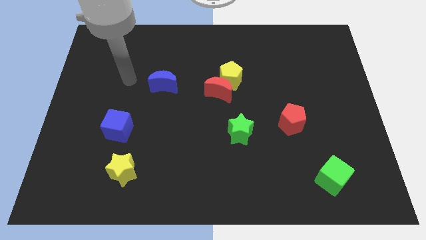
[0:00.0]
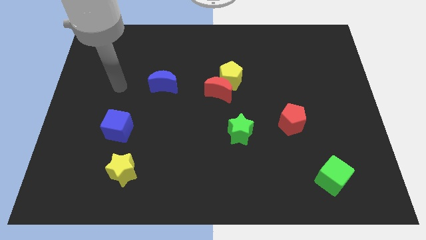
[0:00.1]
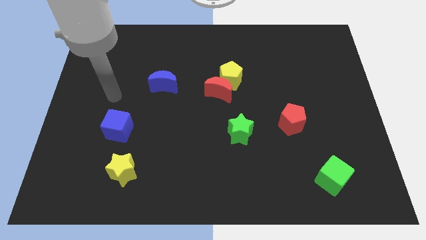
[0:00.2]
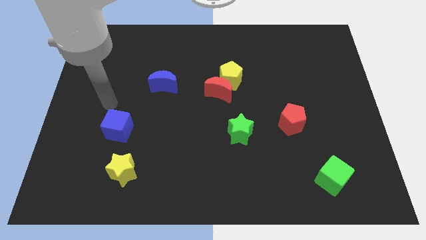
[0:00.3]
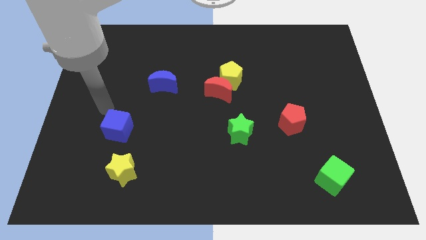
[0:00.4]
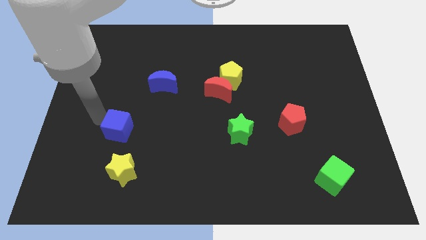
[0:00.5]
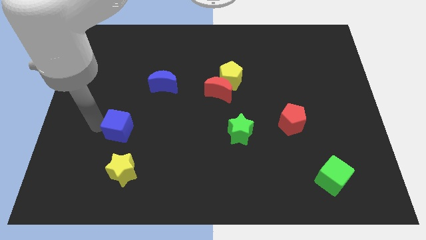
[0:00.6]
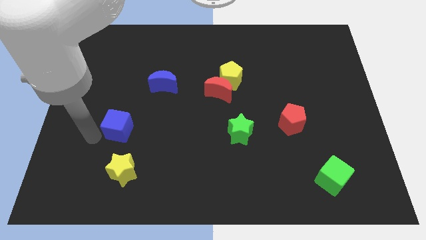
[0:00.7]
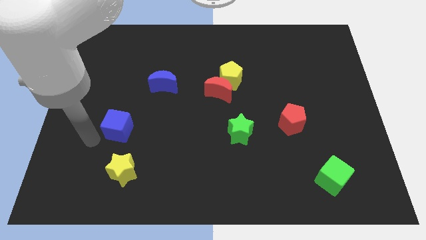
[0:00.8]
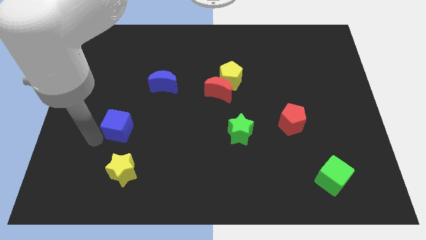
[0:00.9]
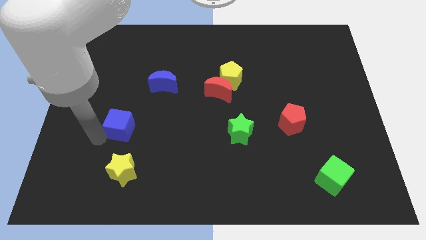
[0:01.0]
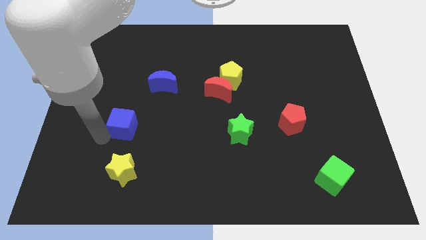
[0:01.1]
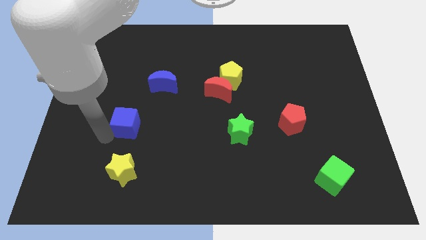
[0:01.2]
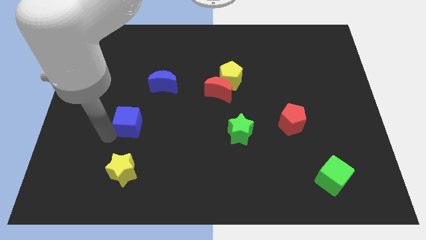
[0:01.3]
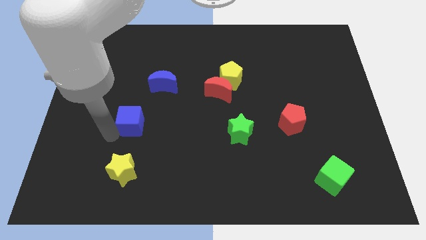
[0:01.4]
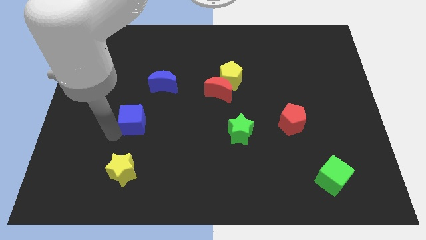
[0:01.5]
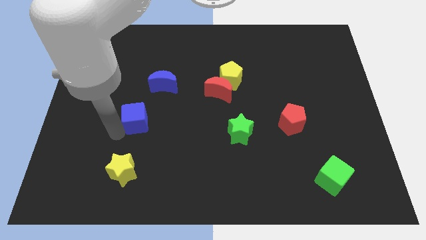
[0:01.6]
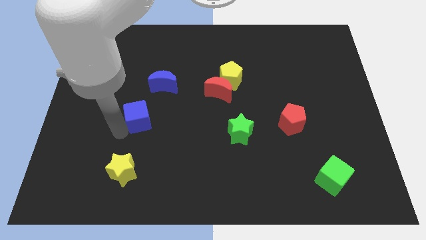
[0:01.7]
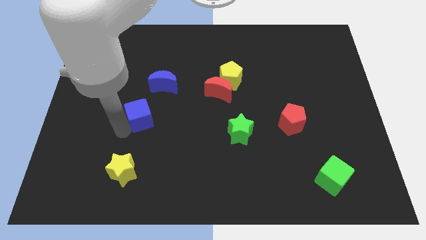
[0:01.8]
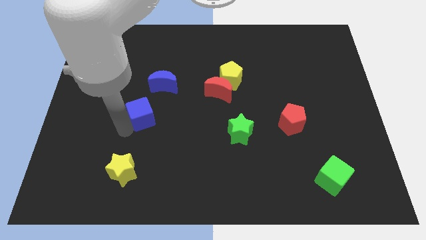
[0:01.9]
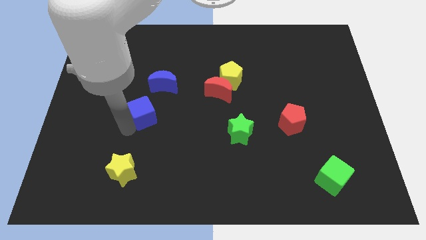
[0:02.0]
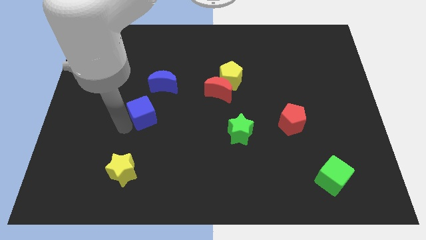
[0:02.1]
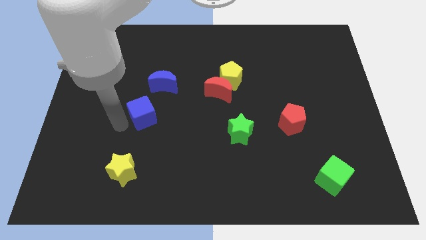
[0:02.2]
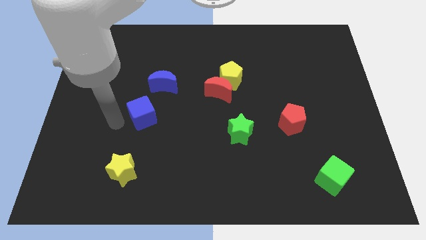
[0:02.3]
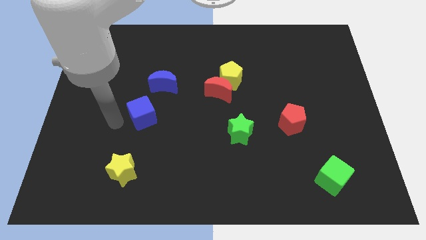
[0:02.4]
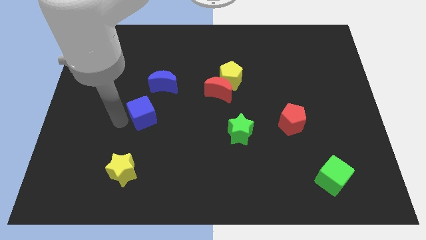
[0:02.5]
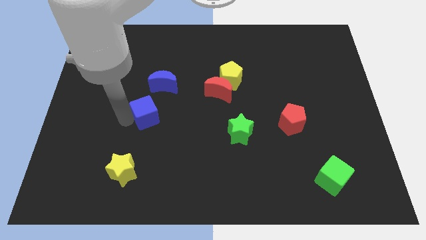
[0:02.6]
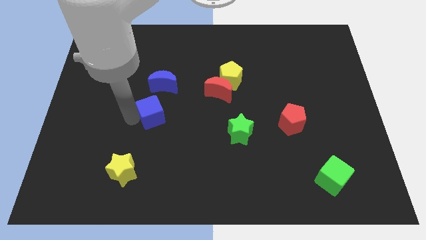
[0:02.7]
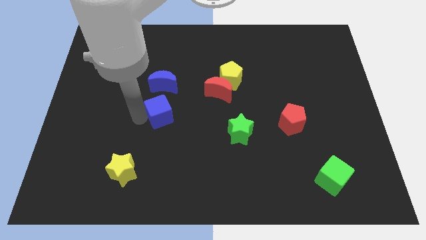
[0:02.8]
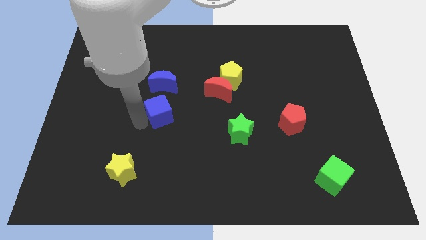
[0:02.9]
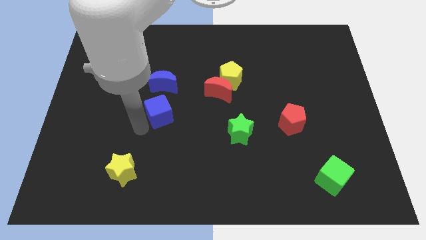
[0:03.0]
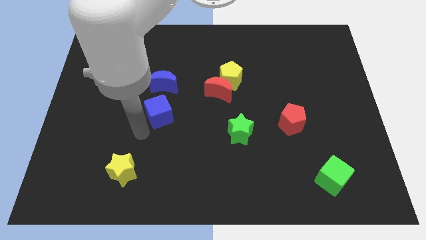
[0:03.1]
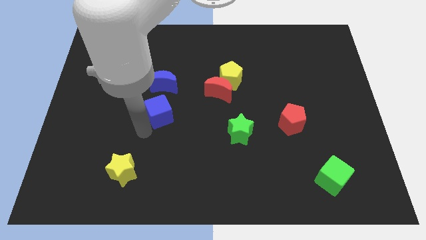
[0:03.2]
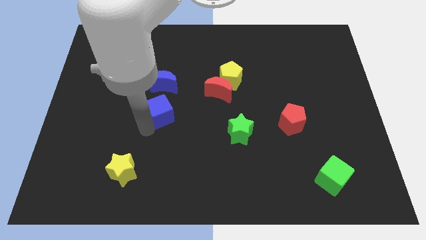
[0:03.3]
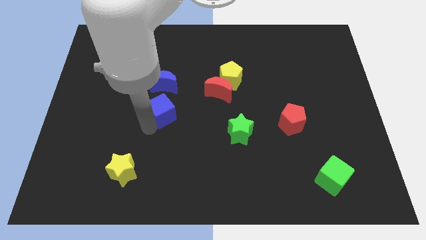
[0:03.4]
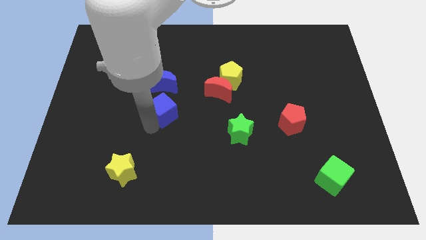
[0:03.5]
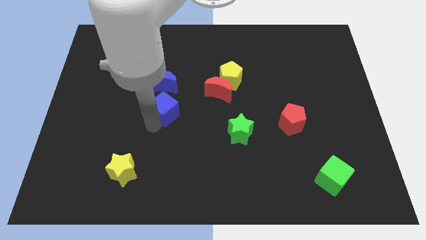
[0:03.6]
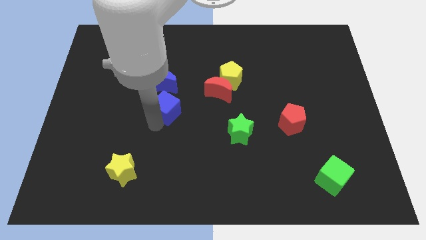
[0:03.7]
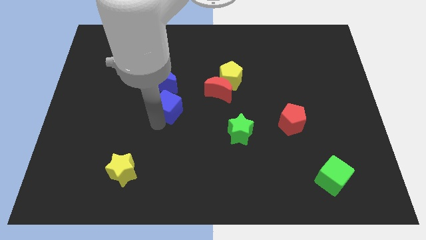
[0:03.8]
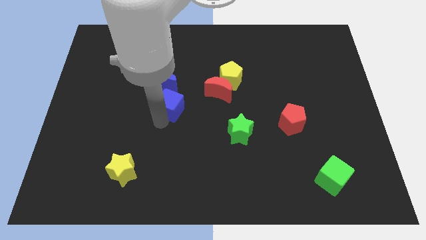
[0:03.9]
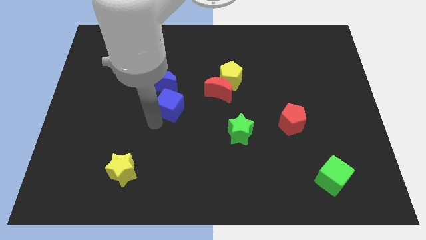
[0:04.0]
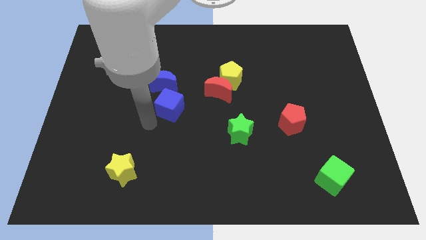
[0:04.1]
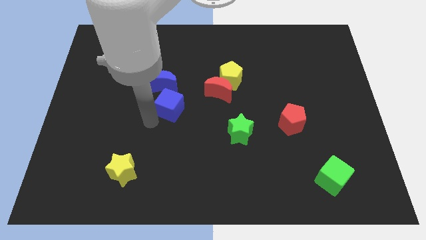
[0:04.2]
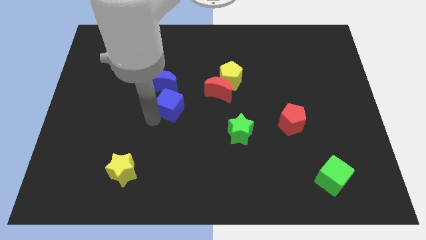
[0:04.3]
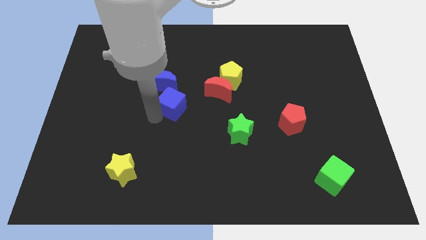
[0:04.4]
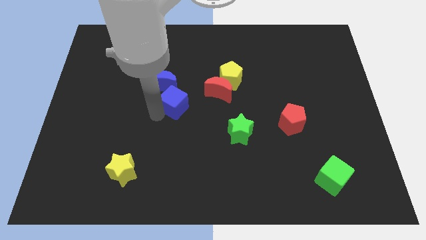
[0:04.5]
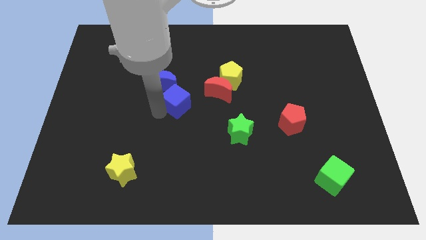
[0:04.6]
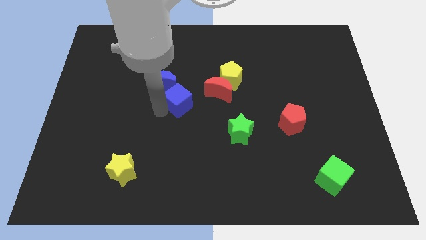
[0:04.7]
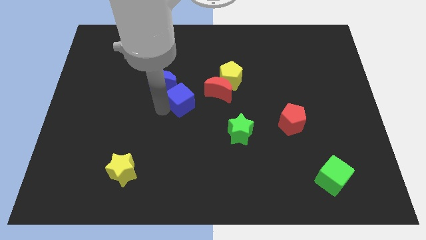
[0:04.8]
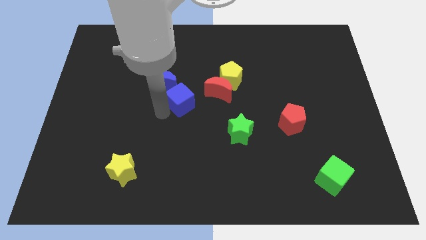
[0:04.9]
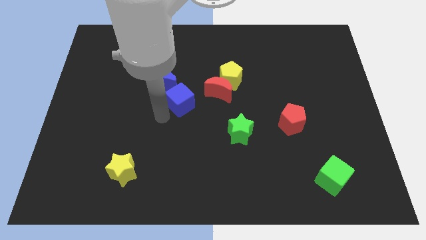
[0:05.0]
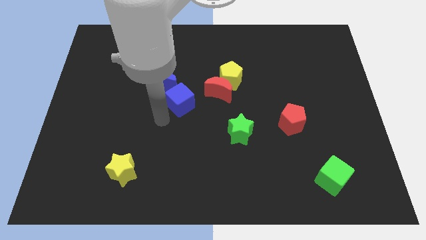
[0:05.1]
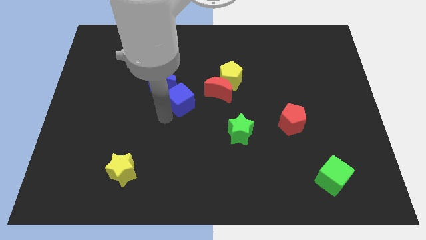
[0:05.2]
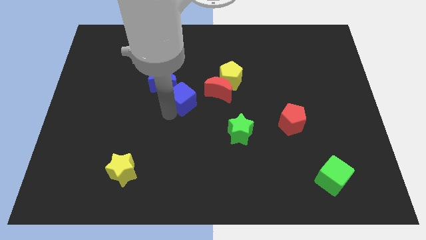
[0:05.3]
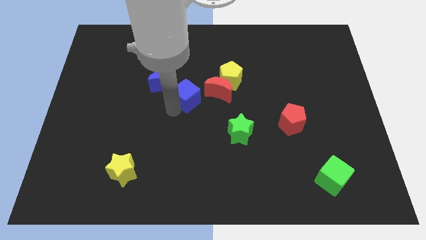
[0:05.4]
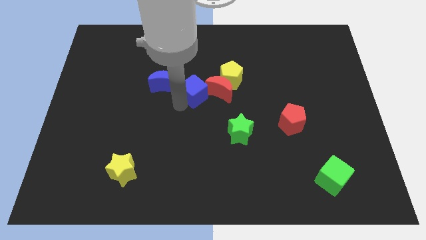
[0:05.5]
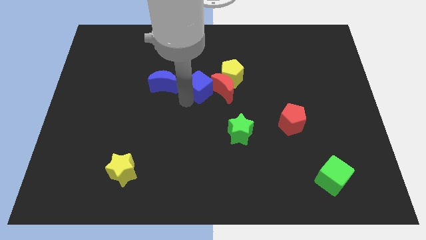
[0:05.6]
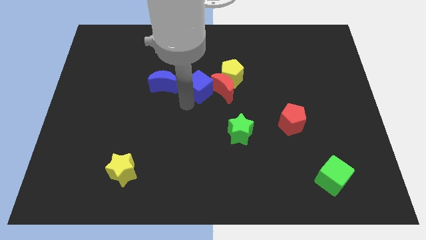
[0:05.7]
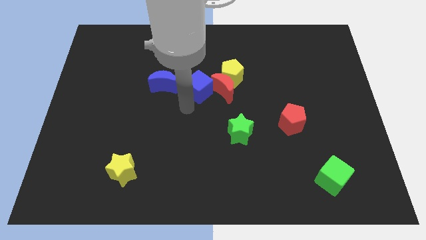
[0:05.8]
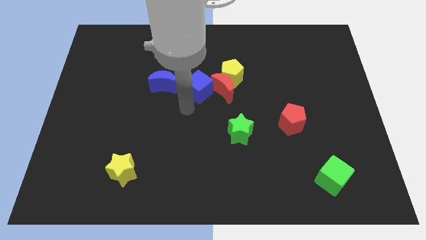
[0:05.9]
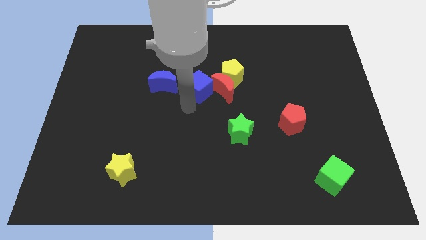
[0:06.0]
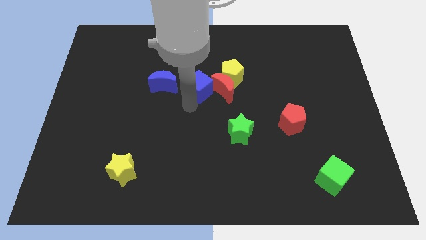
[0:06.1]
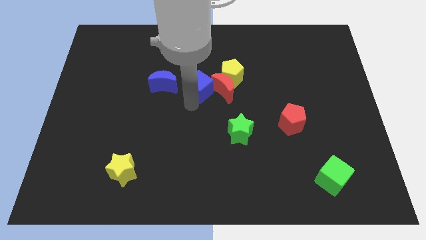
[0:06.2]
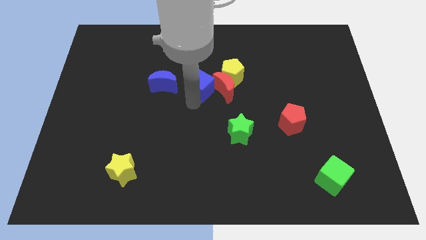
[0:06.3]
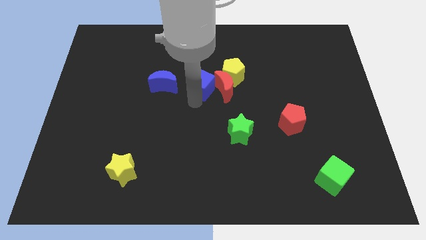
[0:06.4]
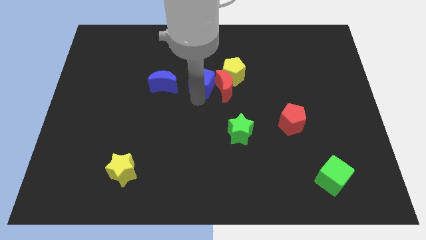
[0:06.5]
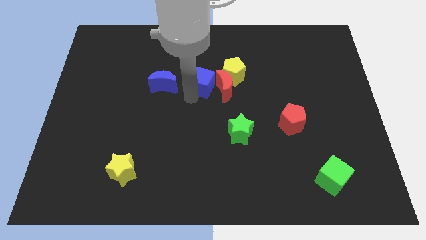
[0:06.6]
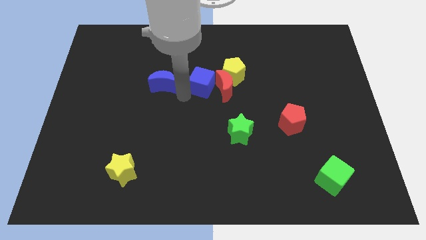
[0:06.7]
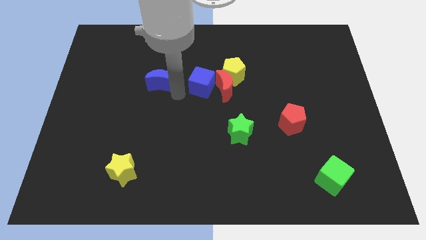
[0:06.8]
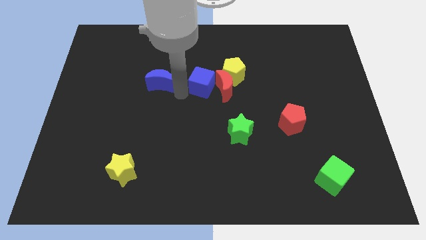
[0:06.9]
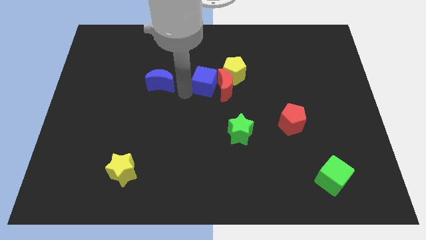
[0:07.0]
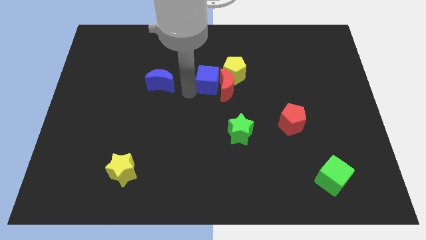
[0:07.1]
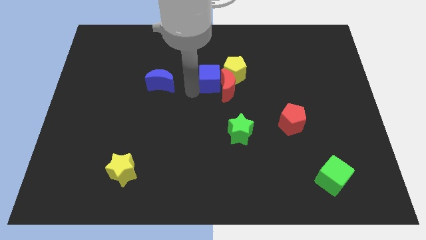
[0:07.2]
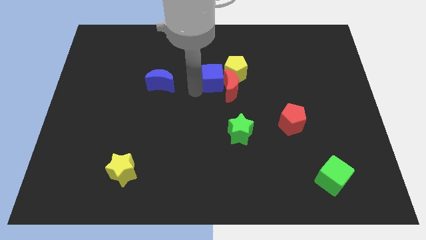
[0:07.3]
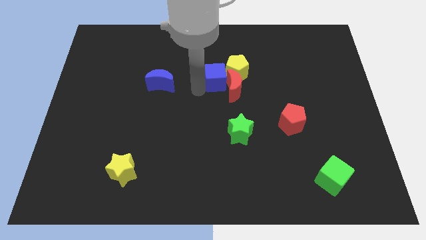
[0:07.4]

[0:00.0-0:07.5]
slide the blue cube to the yellow pentagon

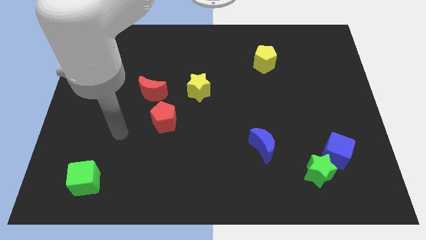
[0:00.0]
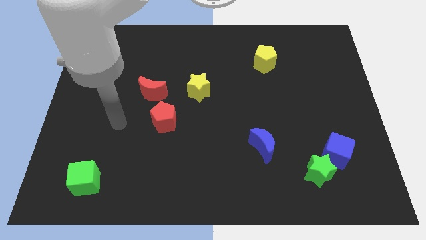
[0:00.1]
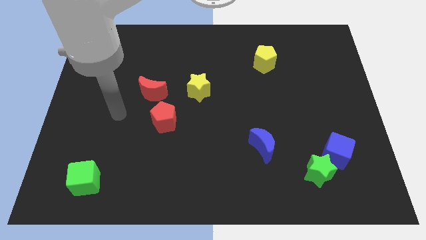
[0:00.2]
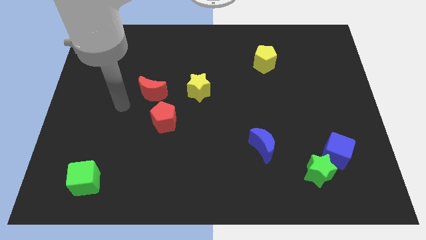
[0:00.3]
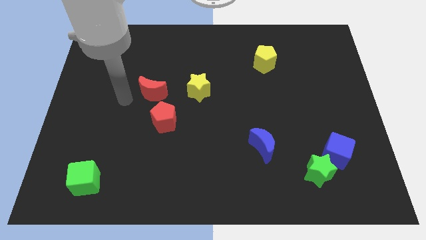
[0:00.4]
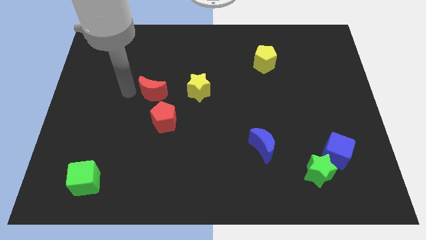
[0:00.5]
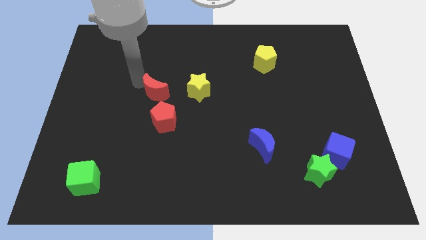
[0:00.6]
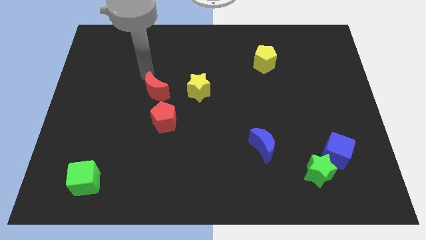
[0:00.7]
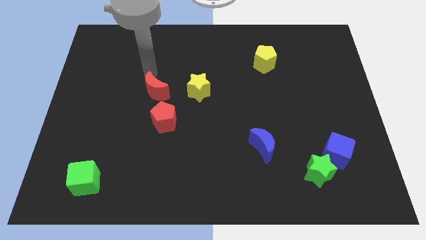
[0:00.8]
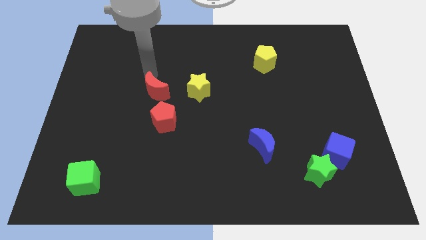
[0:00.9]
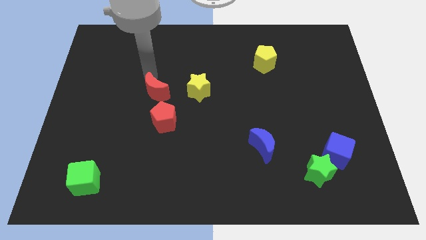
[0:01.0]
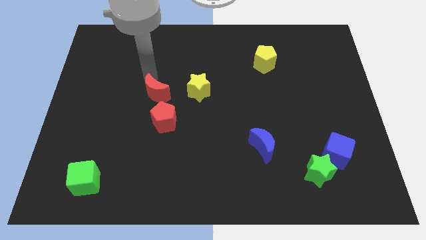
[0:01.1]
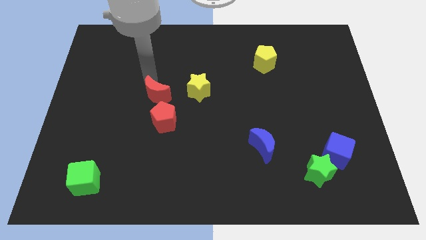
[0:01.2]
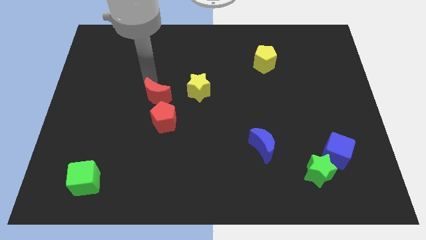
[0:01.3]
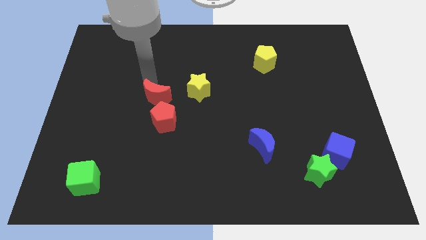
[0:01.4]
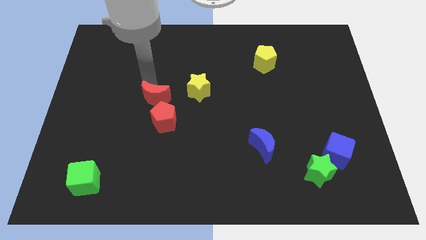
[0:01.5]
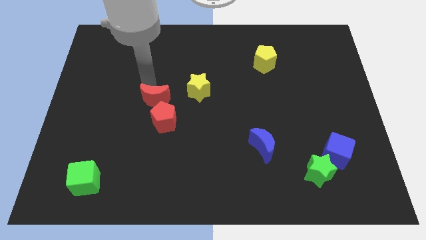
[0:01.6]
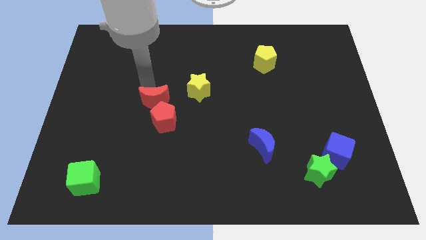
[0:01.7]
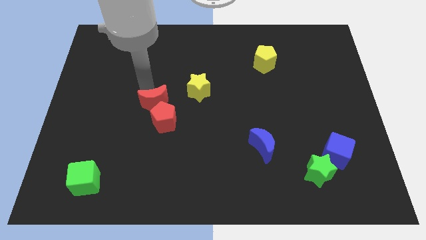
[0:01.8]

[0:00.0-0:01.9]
push the red moon close to the red pentagon
